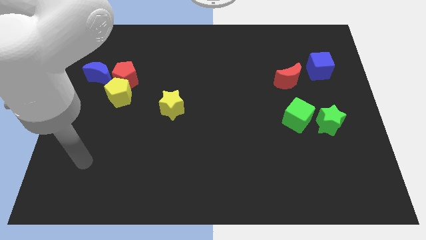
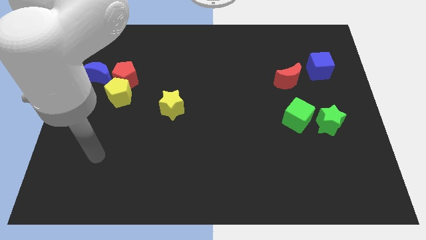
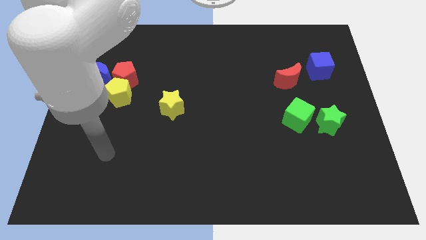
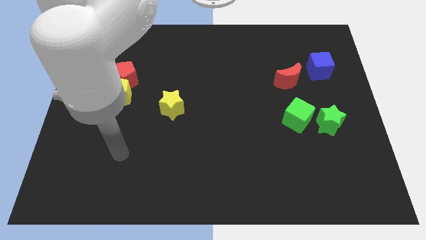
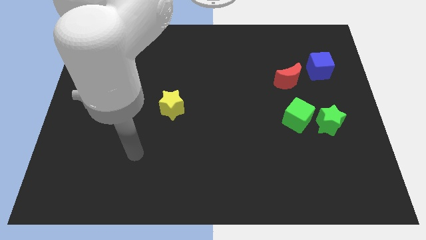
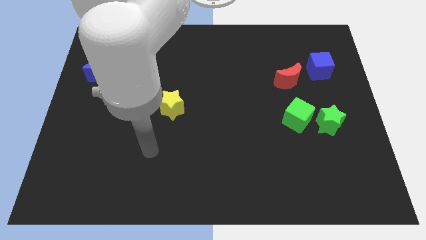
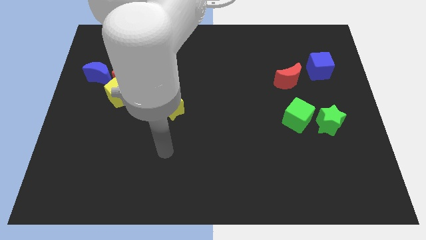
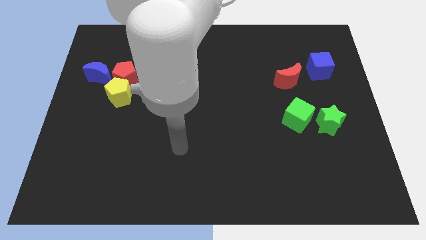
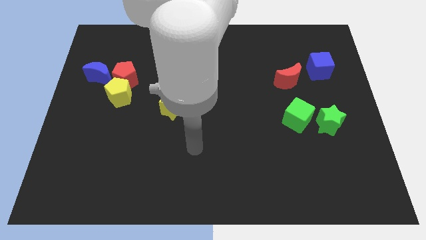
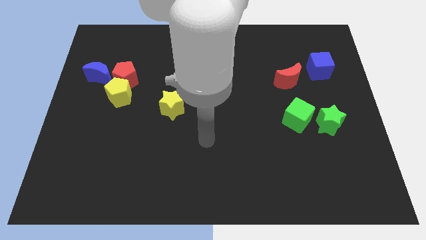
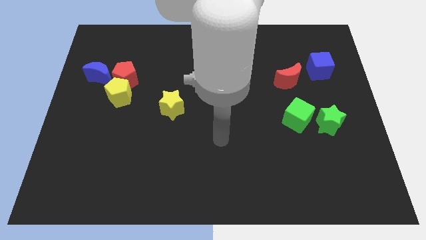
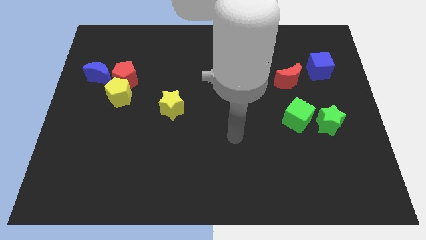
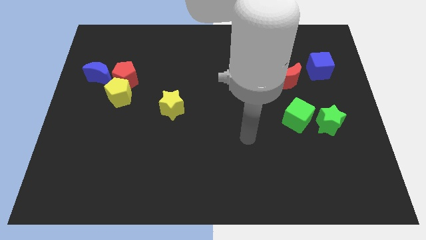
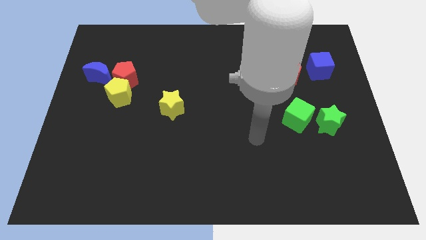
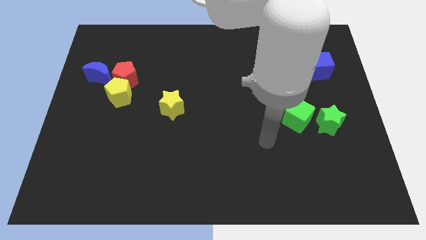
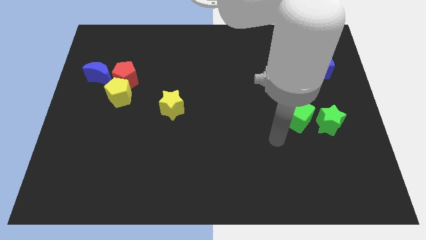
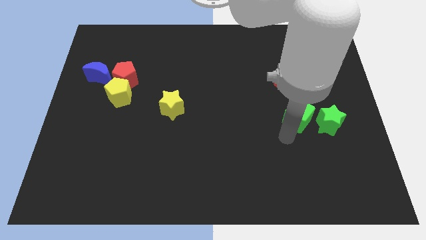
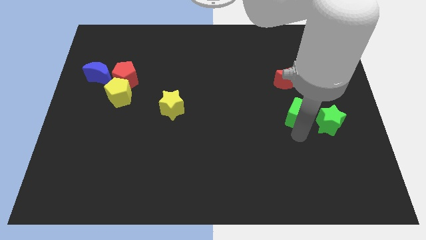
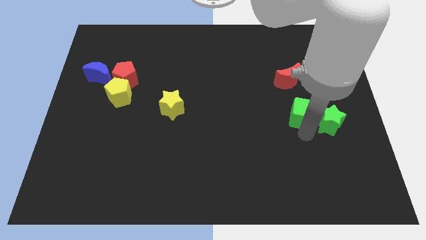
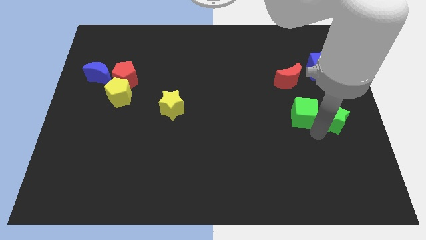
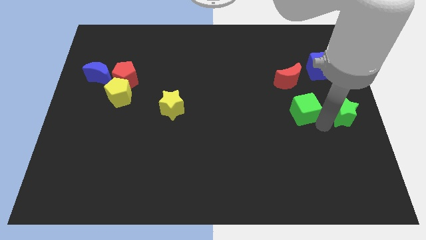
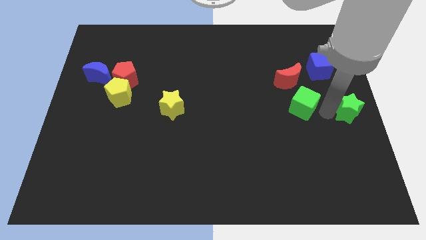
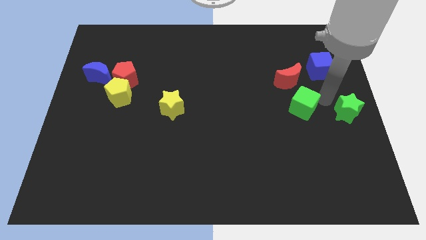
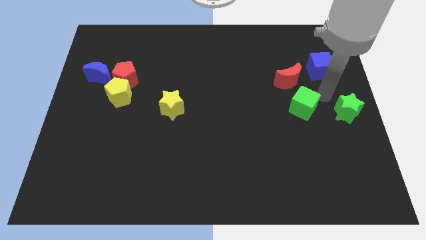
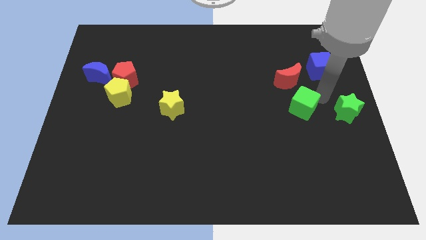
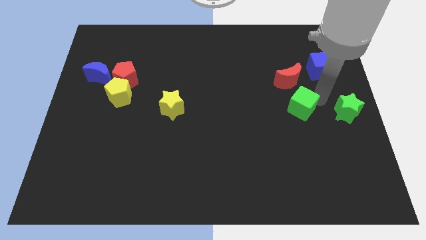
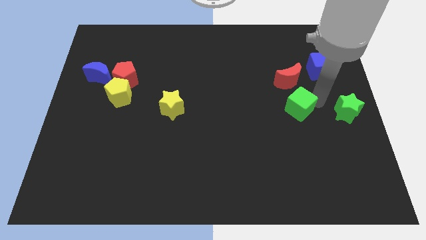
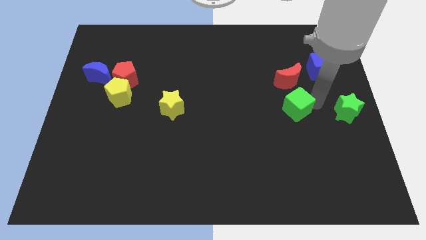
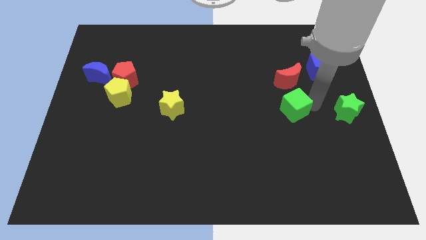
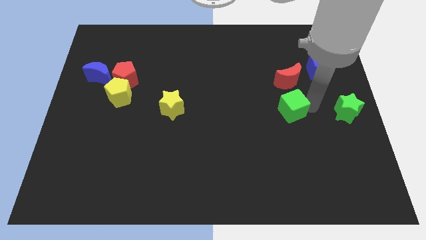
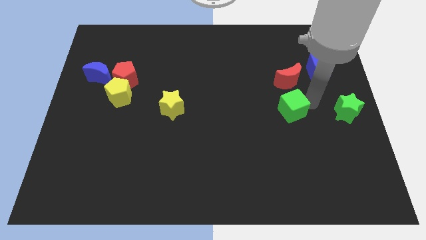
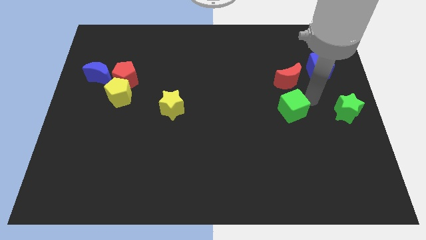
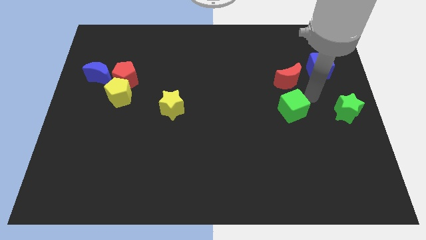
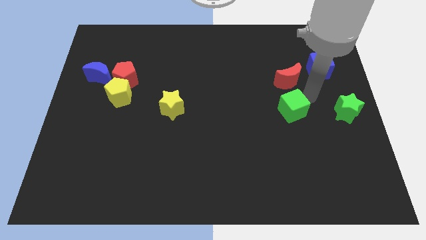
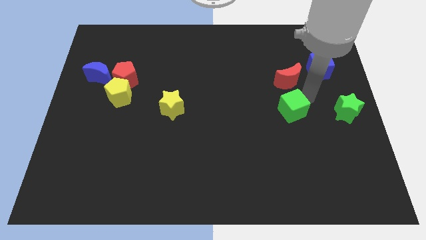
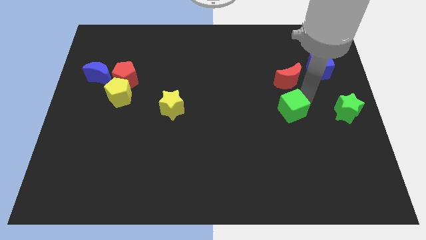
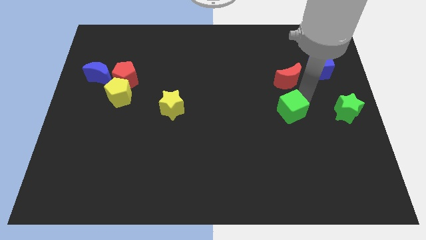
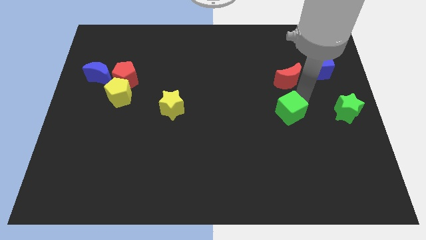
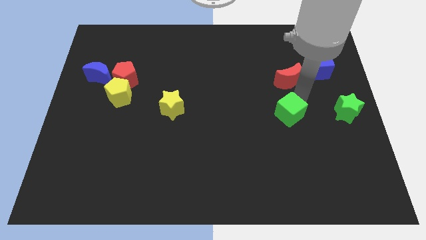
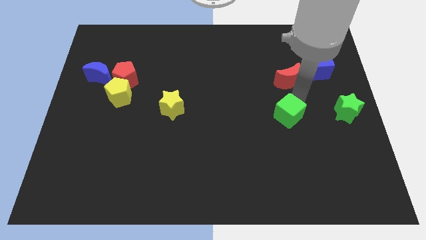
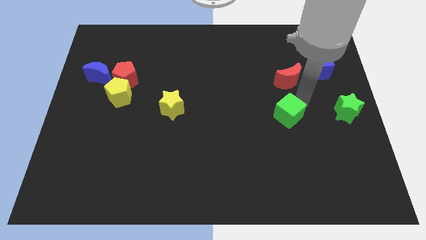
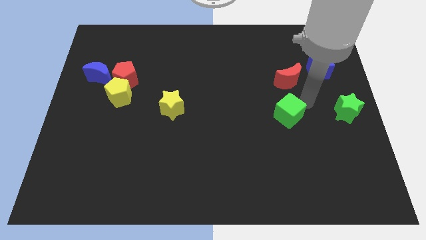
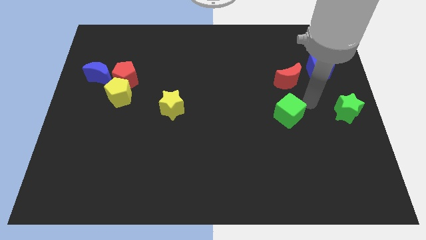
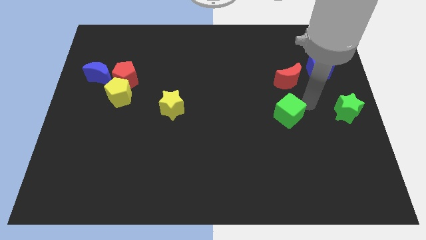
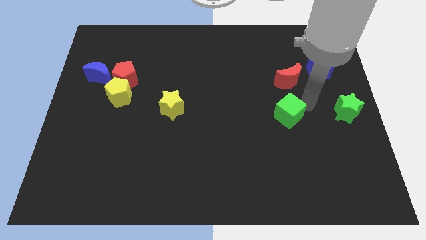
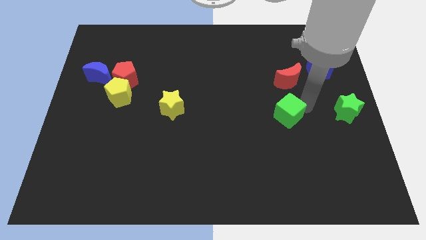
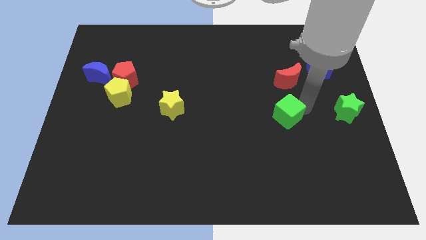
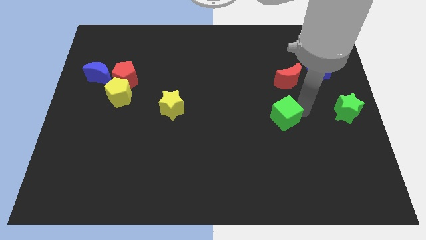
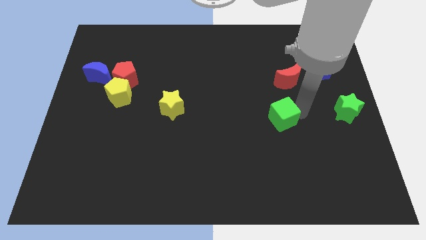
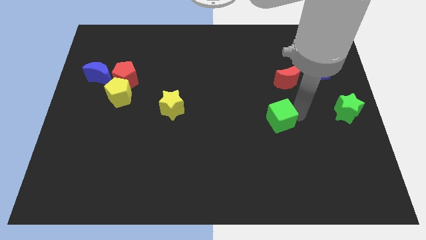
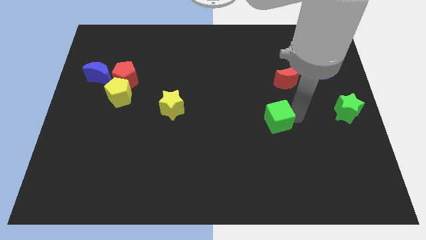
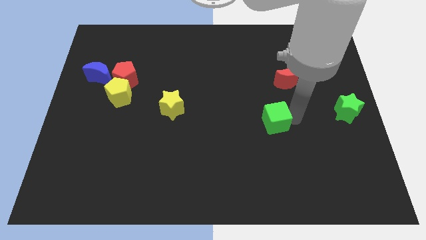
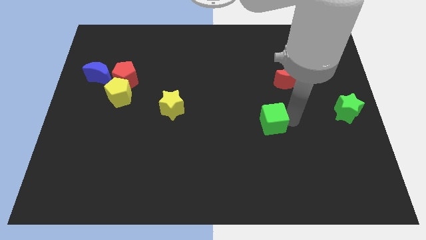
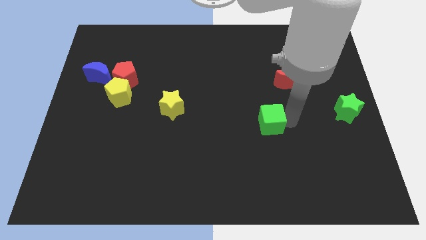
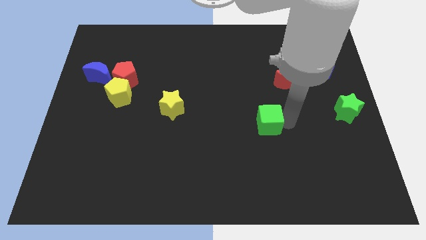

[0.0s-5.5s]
move the green cube a bit to the left

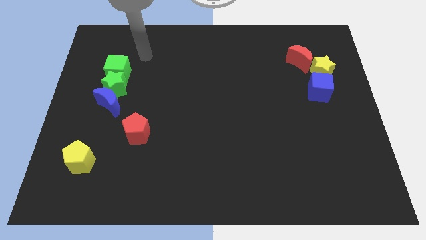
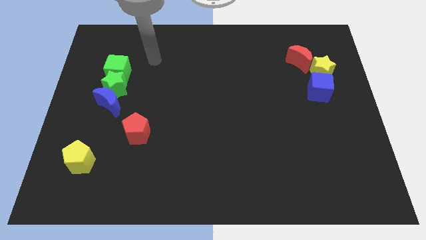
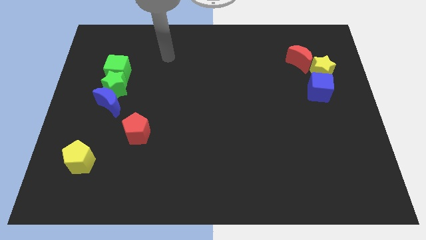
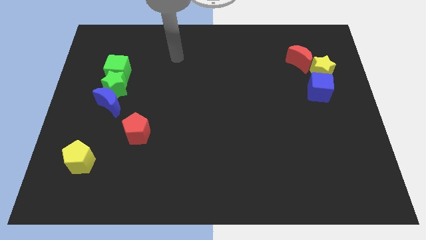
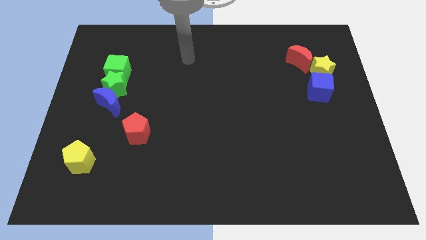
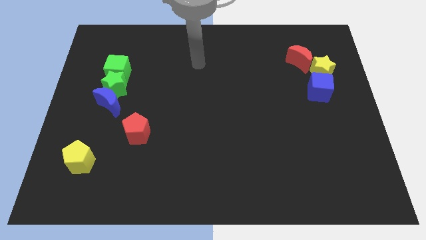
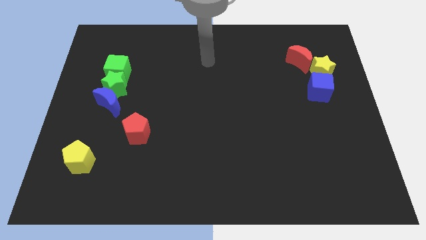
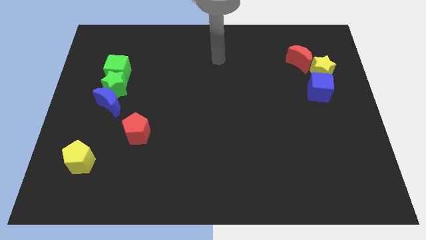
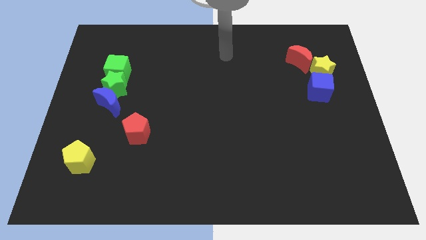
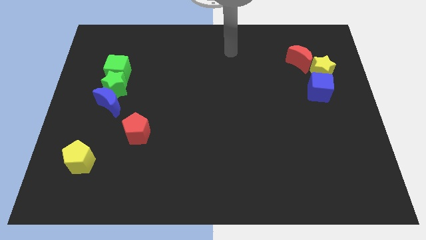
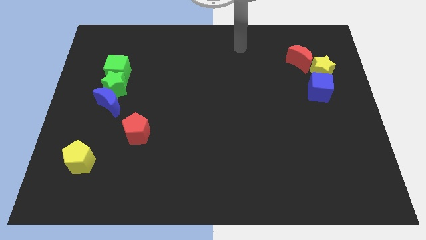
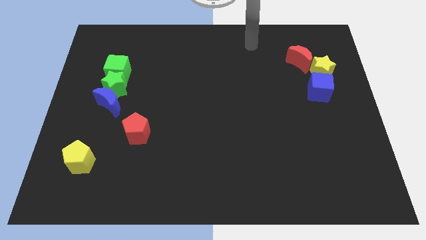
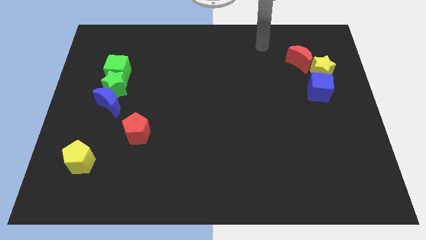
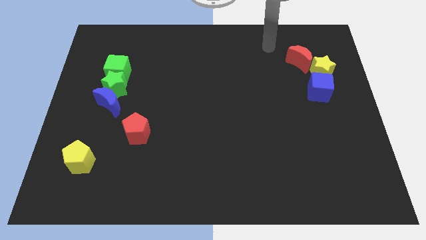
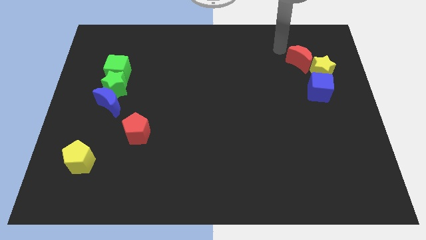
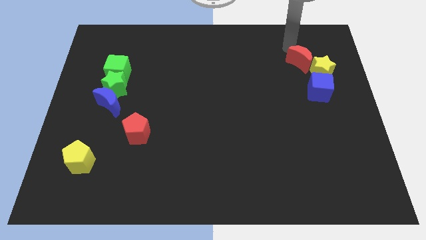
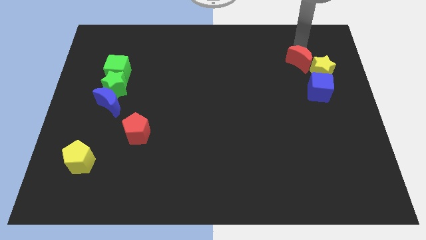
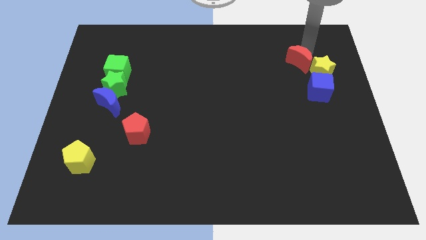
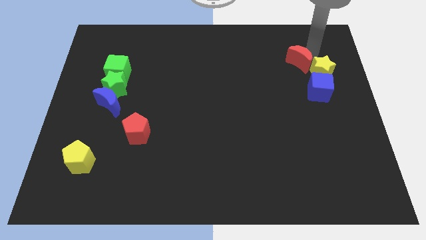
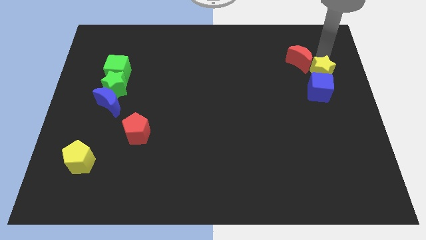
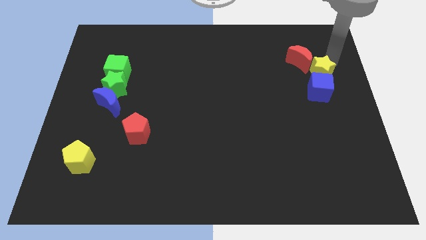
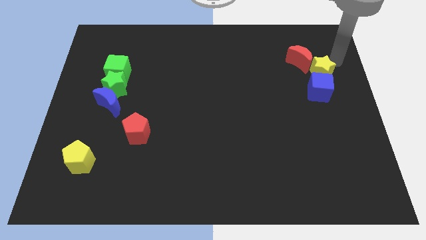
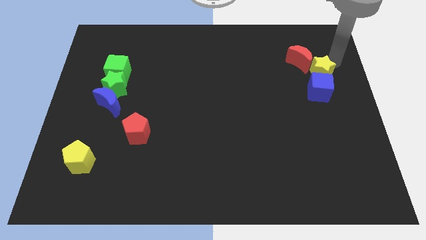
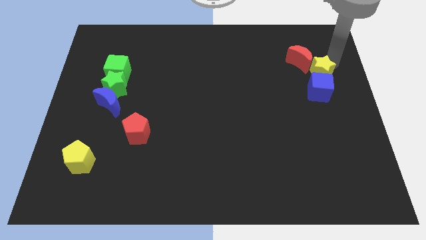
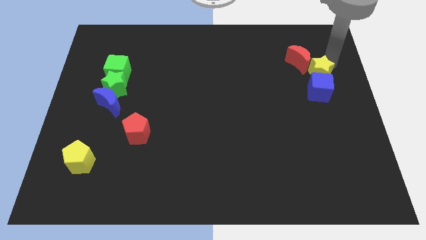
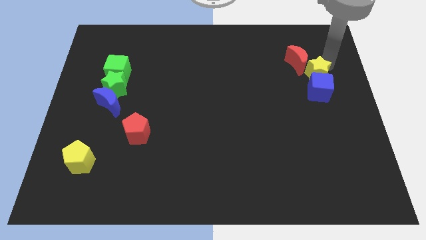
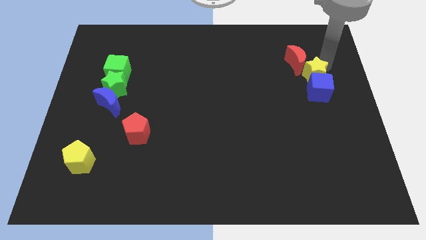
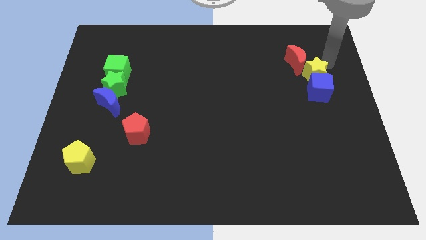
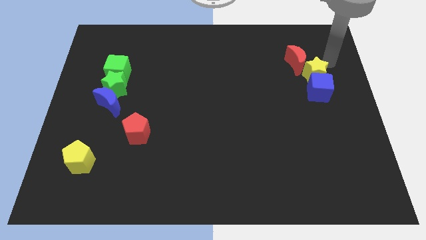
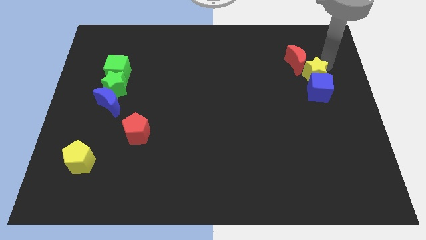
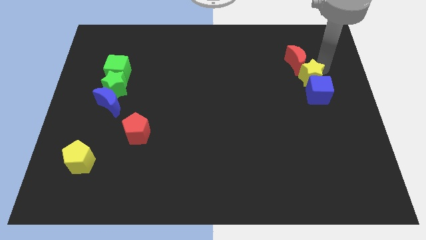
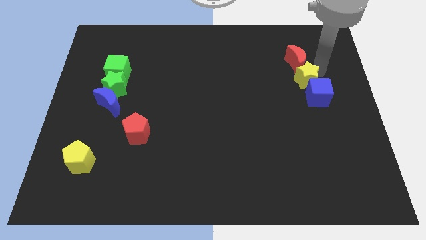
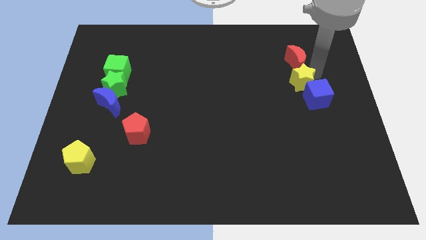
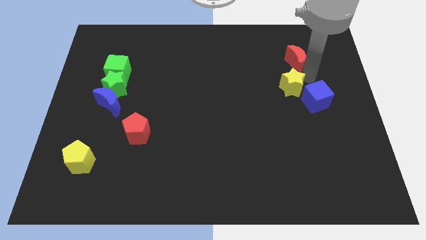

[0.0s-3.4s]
move the yellow star a little down and left diagonally
